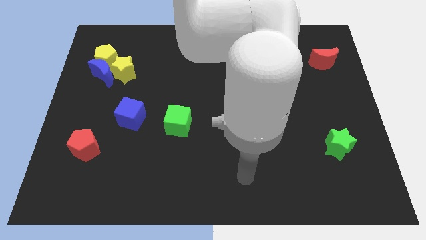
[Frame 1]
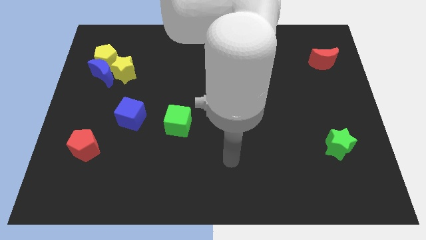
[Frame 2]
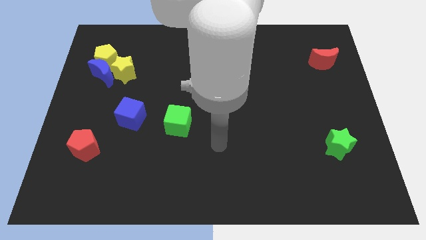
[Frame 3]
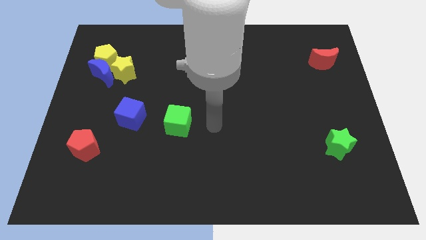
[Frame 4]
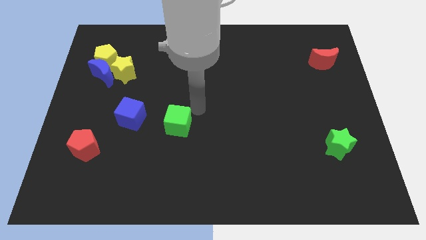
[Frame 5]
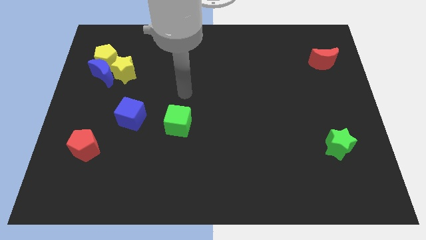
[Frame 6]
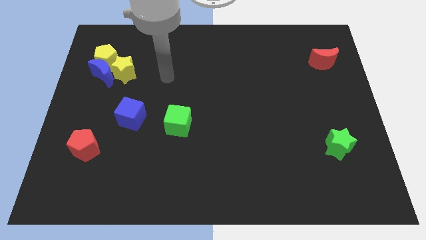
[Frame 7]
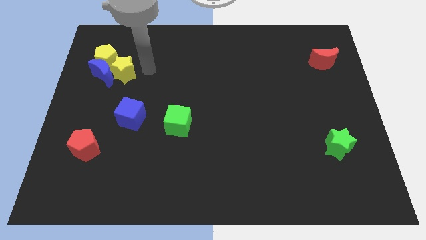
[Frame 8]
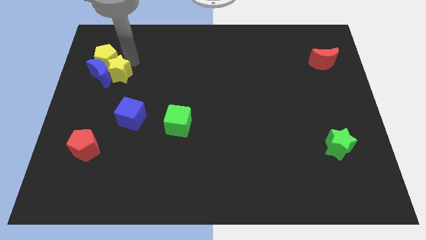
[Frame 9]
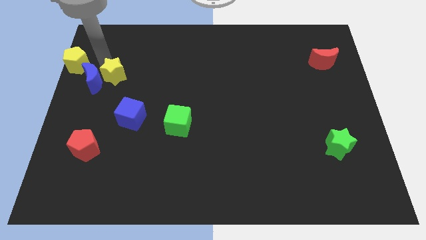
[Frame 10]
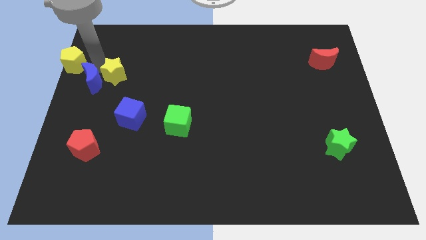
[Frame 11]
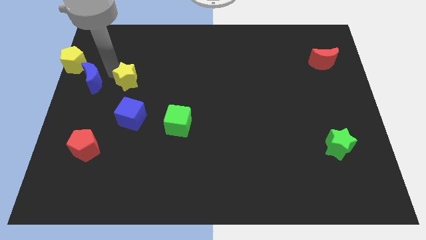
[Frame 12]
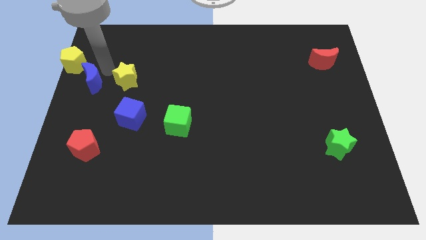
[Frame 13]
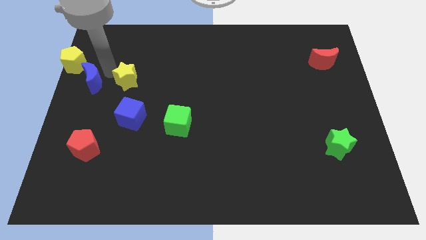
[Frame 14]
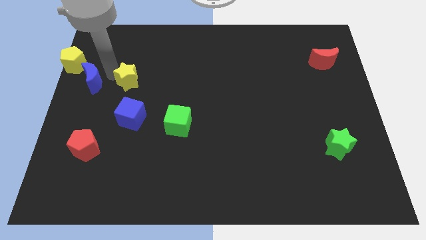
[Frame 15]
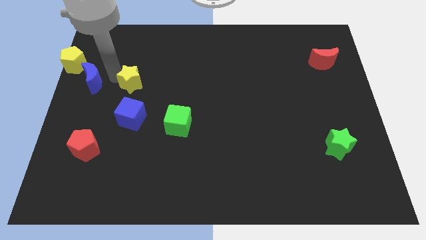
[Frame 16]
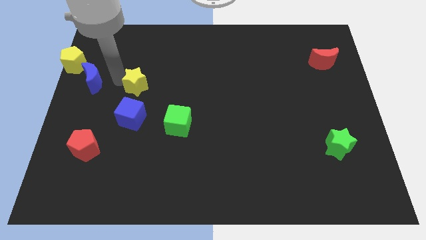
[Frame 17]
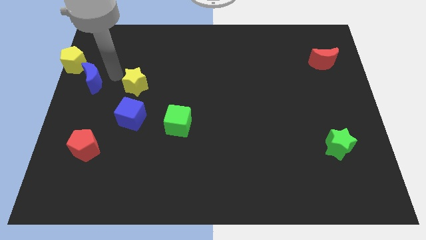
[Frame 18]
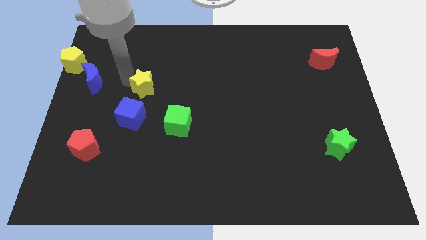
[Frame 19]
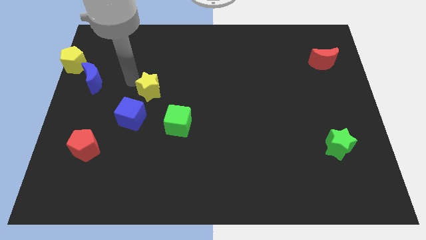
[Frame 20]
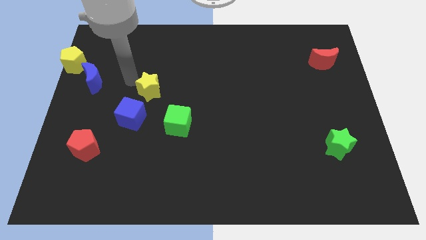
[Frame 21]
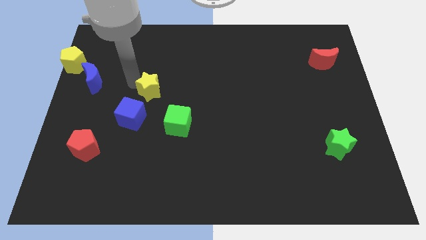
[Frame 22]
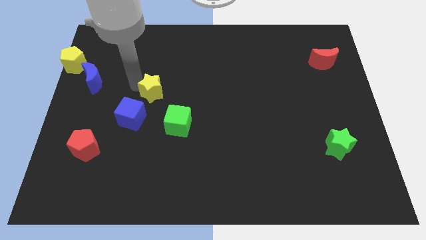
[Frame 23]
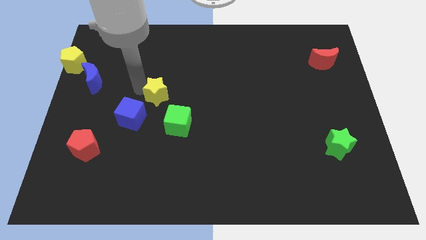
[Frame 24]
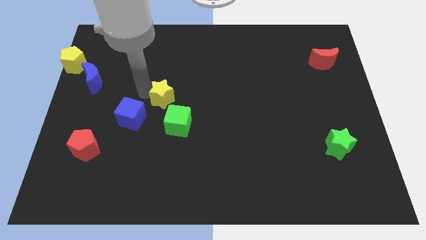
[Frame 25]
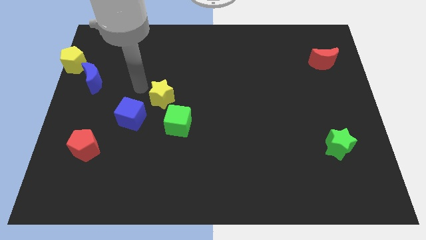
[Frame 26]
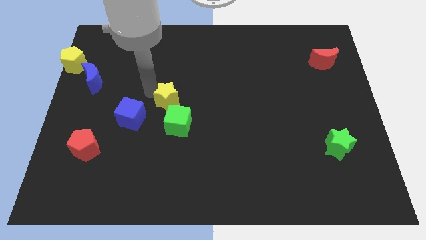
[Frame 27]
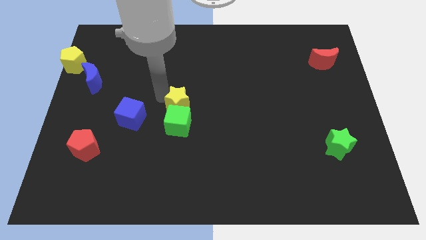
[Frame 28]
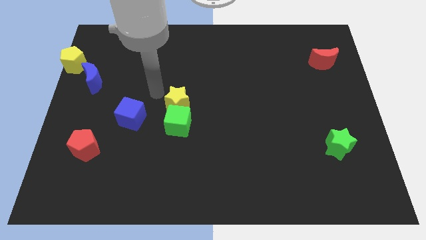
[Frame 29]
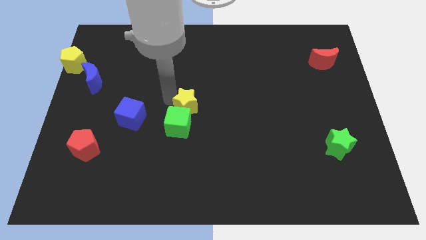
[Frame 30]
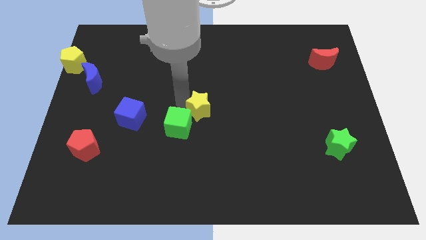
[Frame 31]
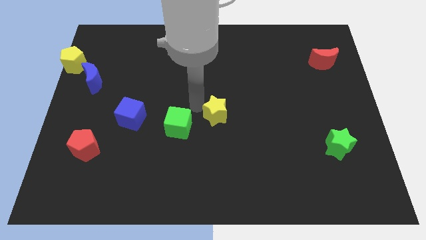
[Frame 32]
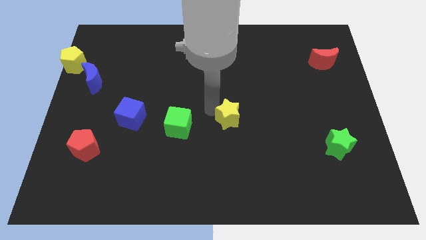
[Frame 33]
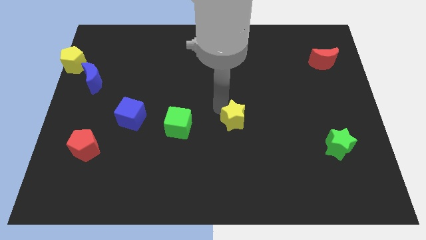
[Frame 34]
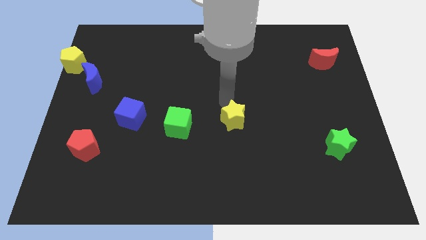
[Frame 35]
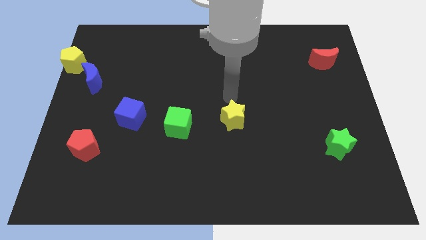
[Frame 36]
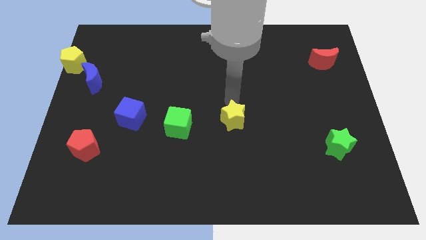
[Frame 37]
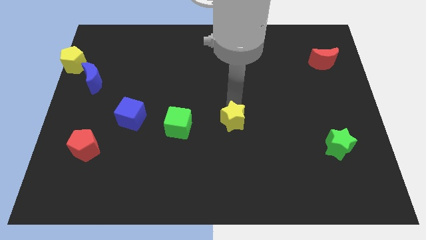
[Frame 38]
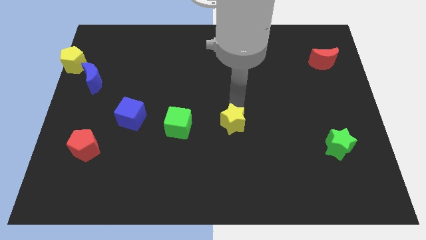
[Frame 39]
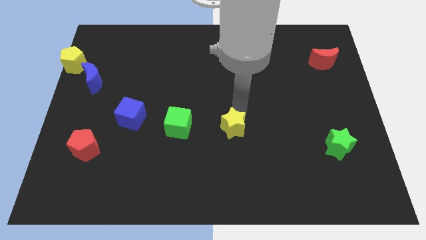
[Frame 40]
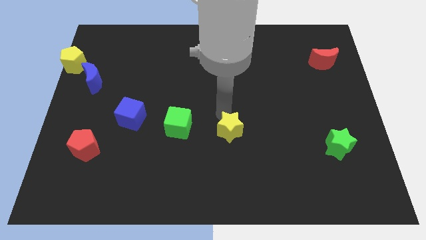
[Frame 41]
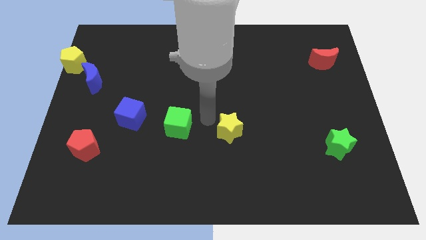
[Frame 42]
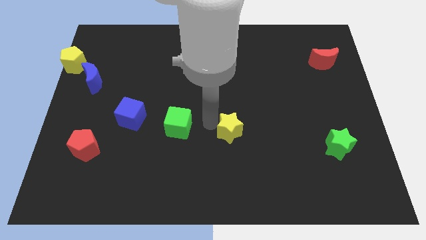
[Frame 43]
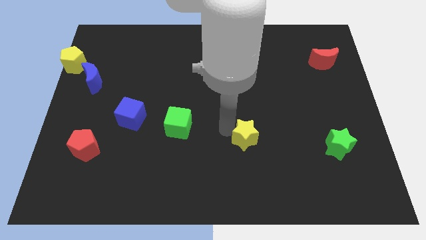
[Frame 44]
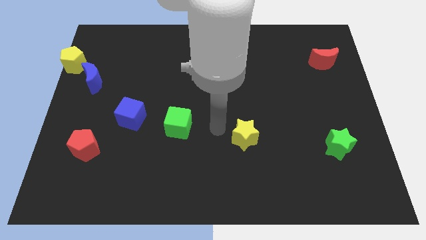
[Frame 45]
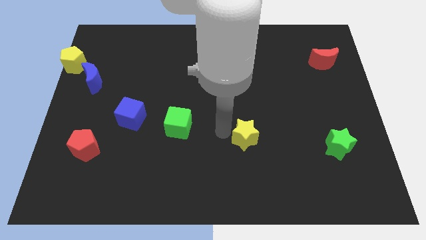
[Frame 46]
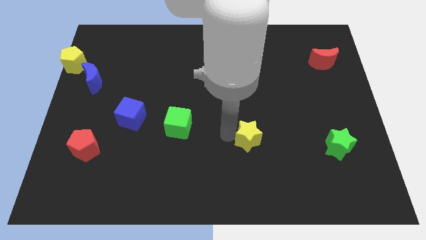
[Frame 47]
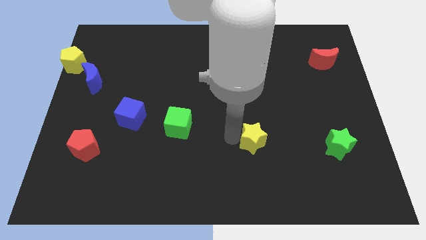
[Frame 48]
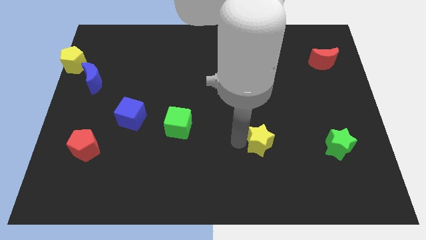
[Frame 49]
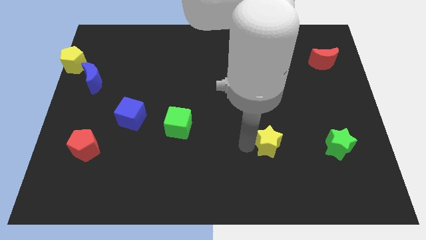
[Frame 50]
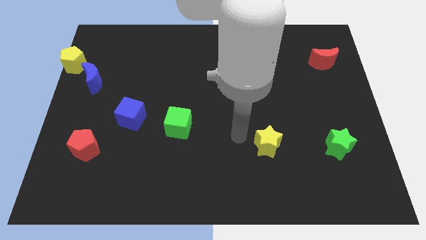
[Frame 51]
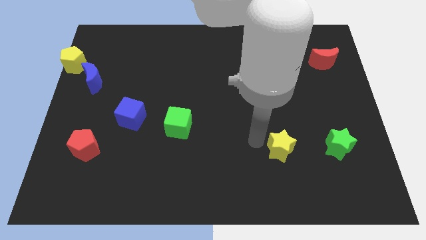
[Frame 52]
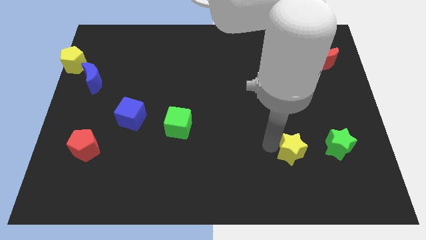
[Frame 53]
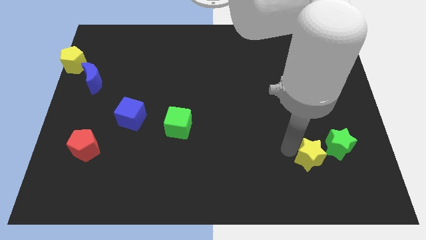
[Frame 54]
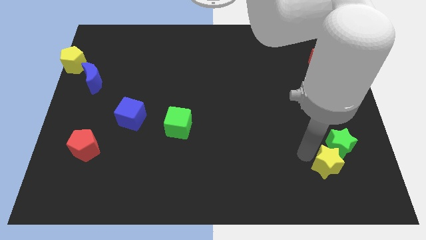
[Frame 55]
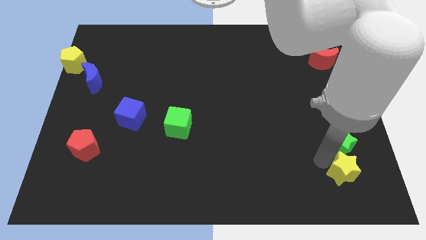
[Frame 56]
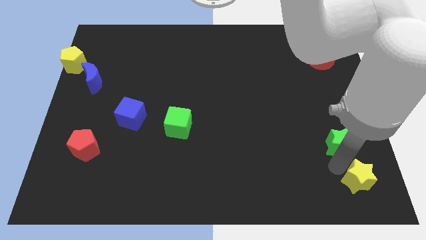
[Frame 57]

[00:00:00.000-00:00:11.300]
put the yellow star to the bottom right corner

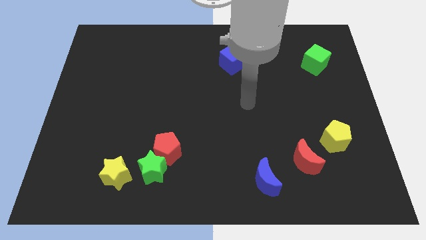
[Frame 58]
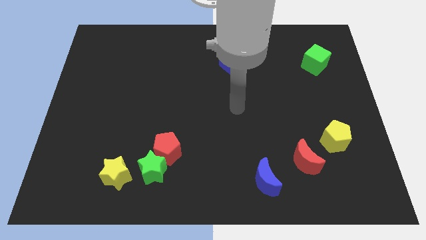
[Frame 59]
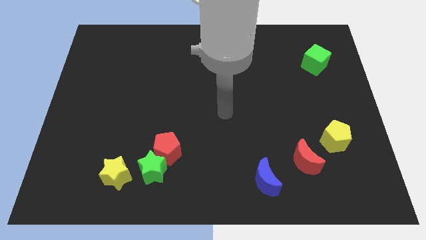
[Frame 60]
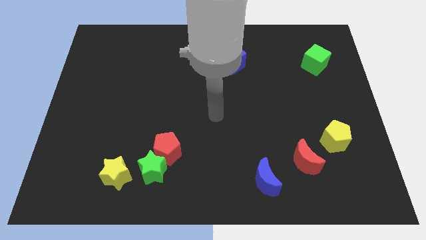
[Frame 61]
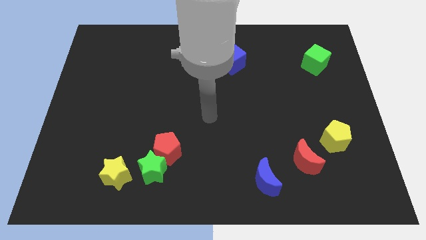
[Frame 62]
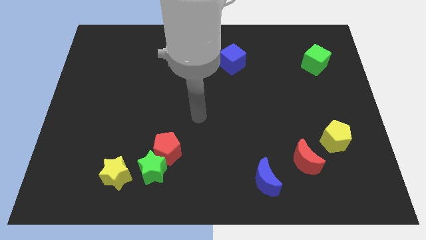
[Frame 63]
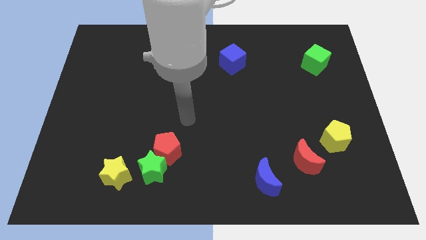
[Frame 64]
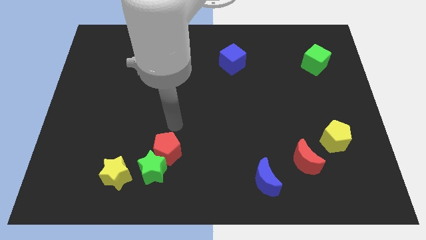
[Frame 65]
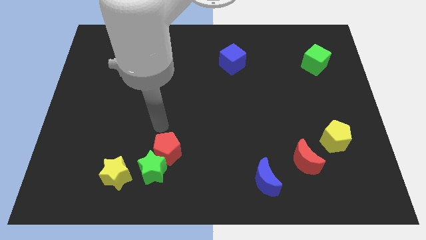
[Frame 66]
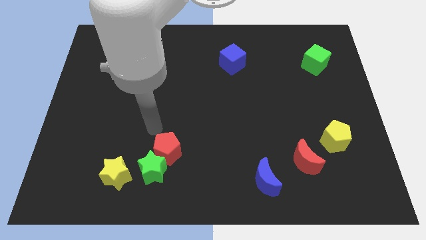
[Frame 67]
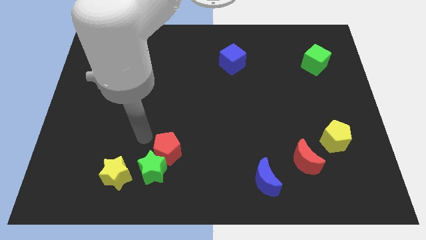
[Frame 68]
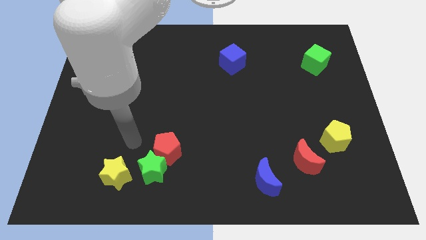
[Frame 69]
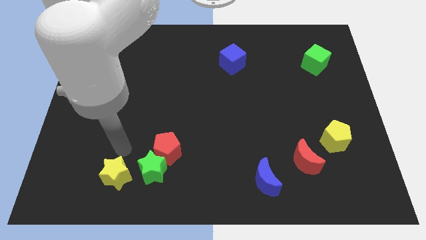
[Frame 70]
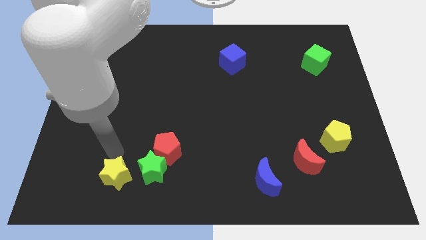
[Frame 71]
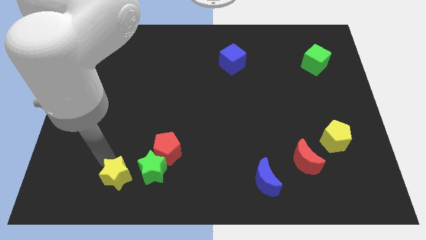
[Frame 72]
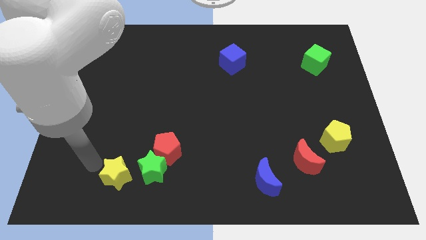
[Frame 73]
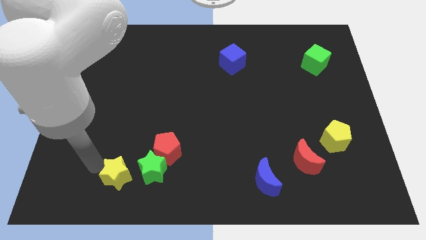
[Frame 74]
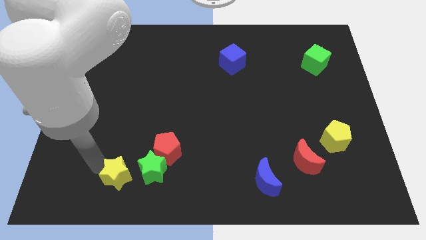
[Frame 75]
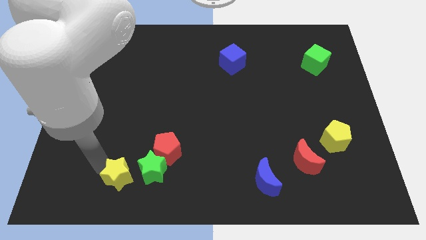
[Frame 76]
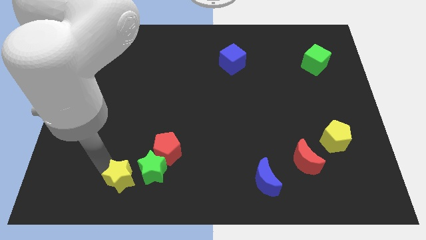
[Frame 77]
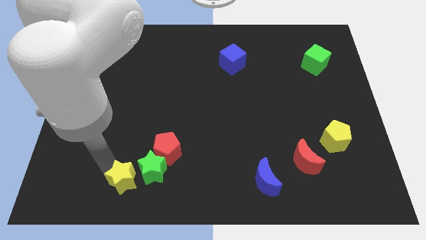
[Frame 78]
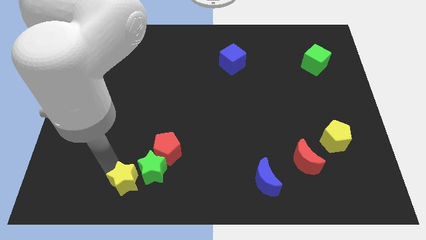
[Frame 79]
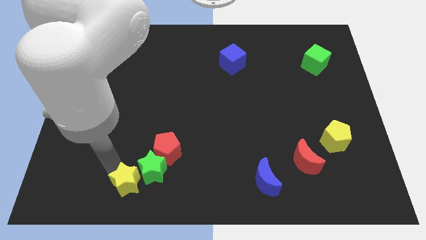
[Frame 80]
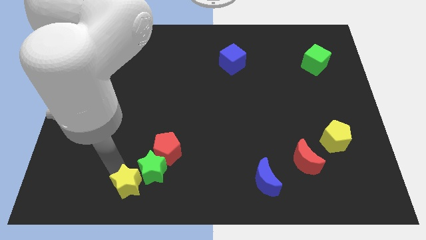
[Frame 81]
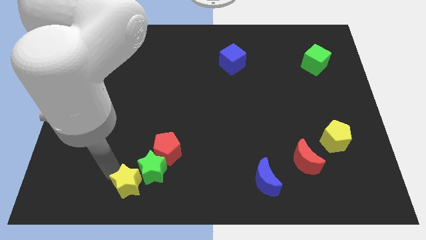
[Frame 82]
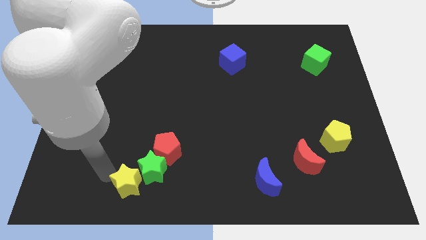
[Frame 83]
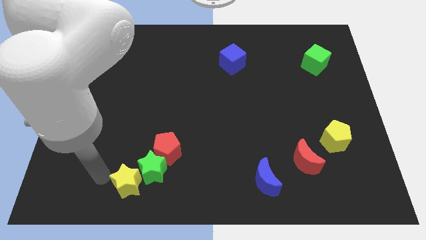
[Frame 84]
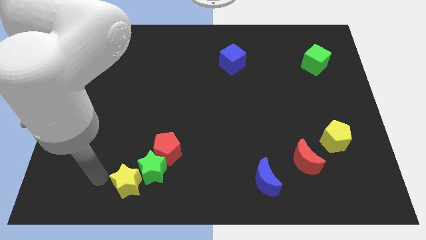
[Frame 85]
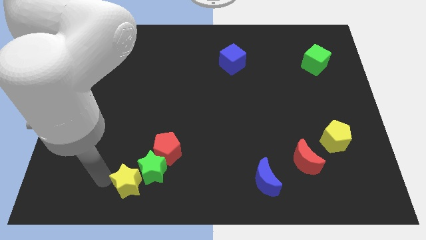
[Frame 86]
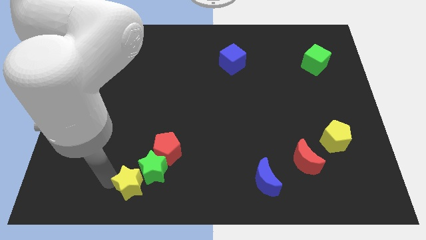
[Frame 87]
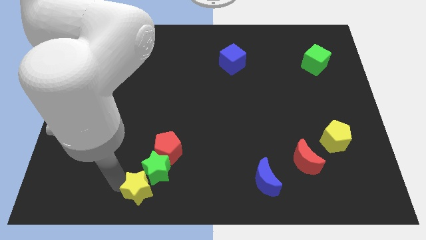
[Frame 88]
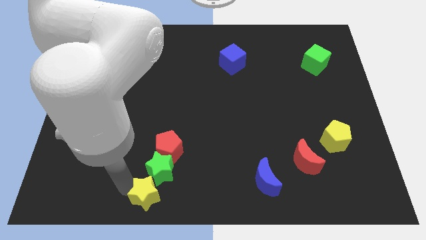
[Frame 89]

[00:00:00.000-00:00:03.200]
put the yellow star to the bottom side
